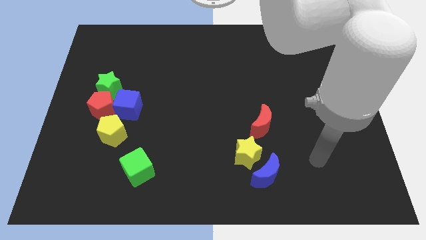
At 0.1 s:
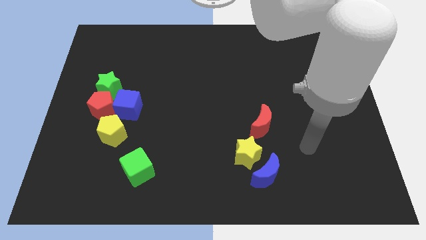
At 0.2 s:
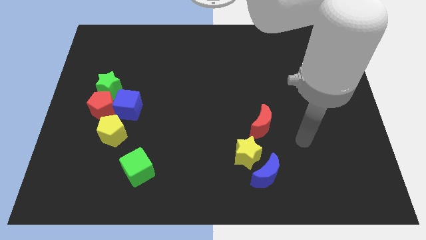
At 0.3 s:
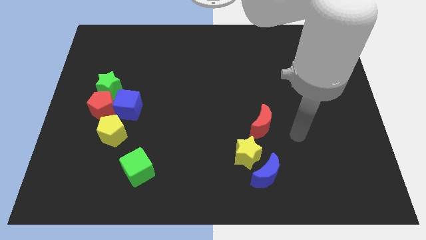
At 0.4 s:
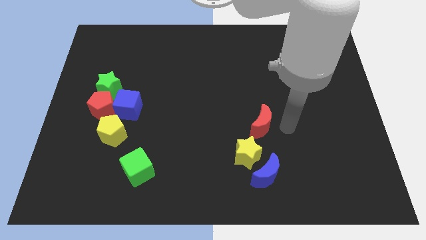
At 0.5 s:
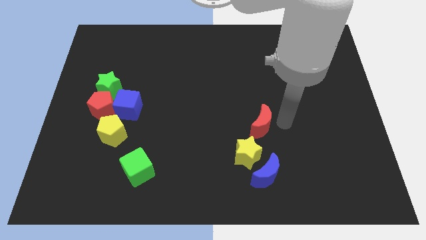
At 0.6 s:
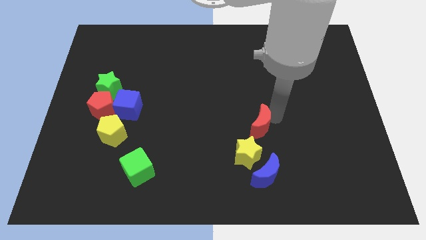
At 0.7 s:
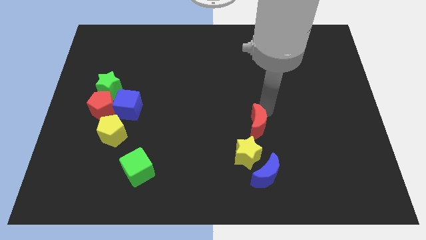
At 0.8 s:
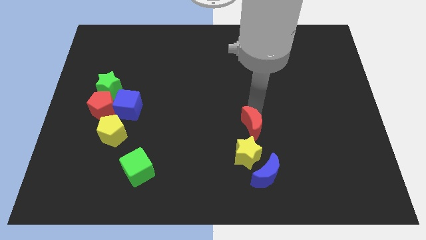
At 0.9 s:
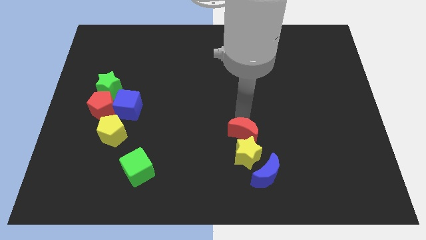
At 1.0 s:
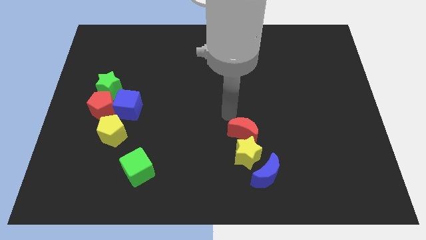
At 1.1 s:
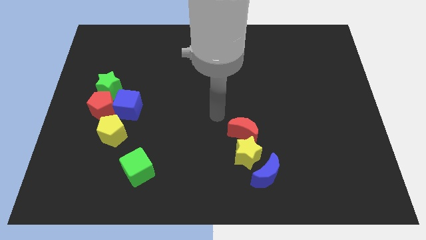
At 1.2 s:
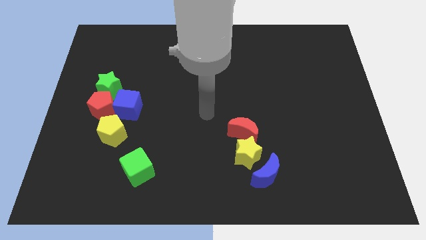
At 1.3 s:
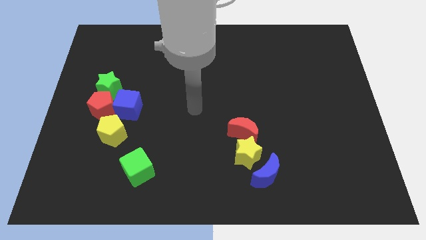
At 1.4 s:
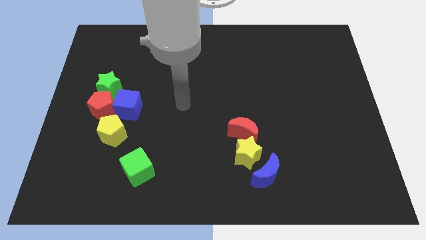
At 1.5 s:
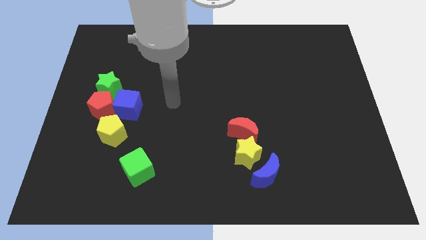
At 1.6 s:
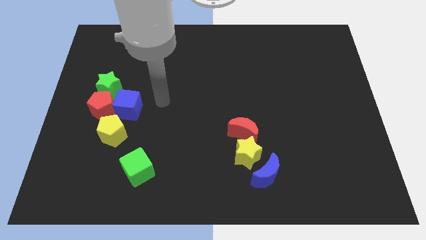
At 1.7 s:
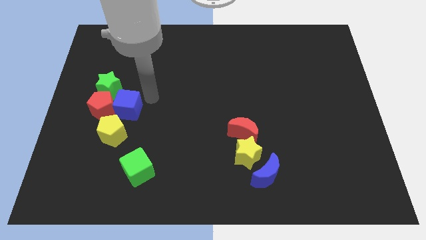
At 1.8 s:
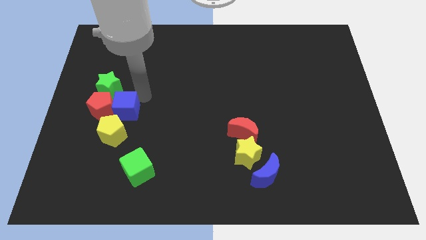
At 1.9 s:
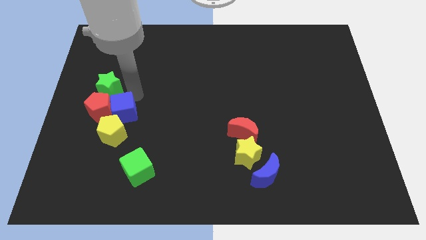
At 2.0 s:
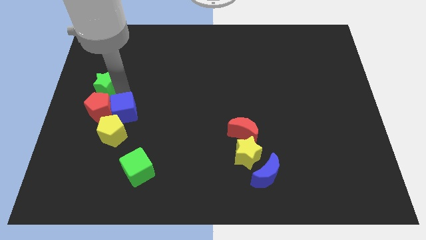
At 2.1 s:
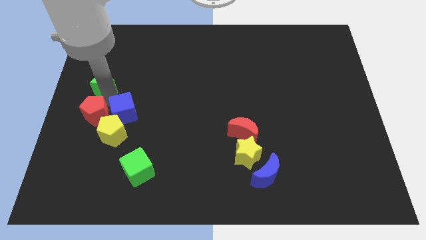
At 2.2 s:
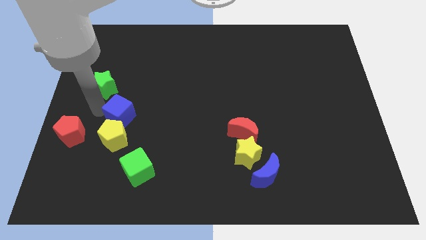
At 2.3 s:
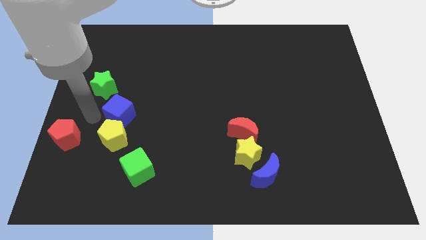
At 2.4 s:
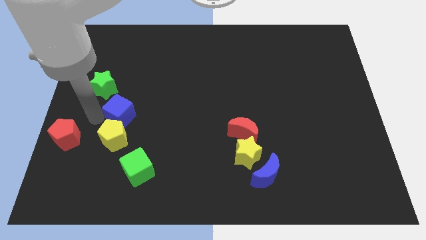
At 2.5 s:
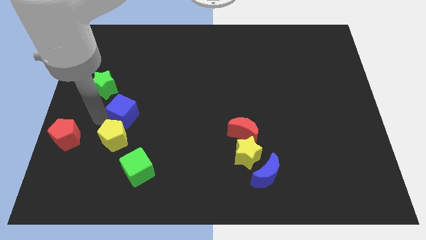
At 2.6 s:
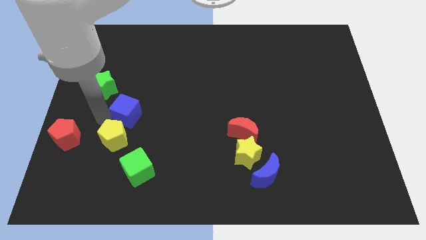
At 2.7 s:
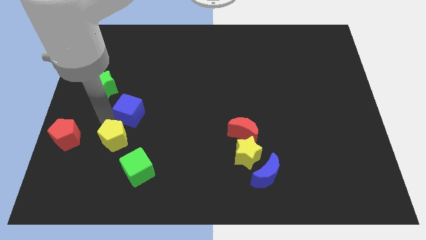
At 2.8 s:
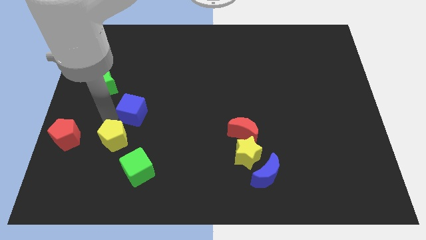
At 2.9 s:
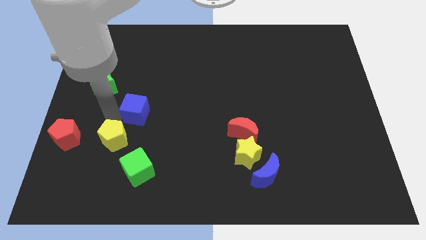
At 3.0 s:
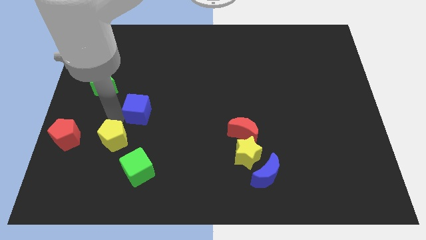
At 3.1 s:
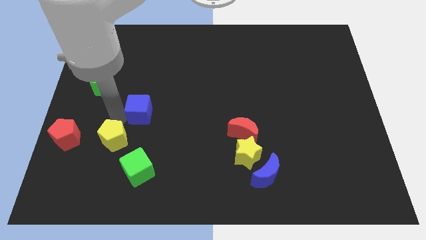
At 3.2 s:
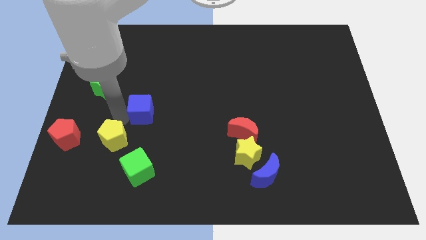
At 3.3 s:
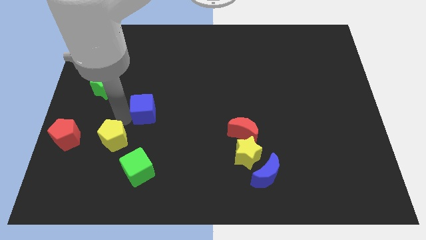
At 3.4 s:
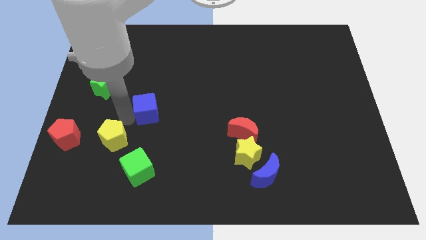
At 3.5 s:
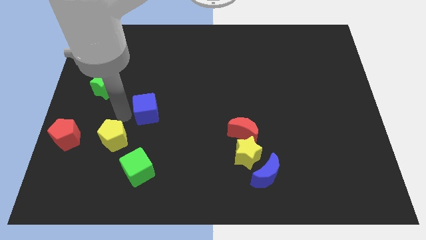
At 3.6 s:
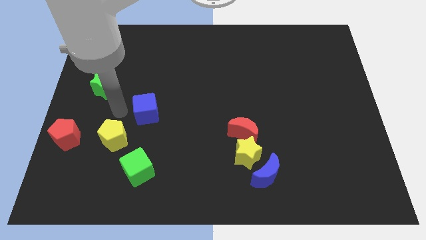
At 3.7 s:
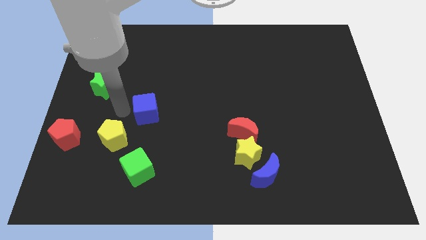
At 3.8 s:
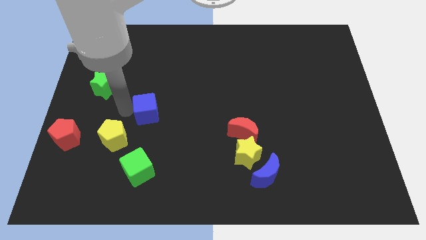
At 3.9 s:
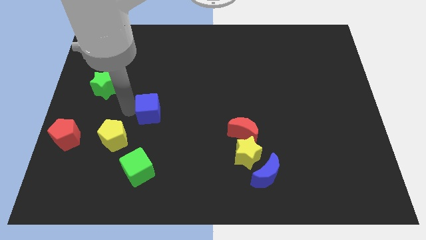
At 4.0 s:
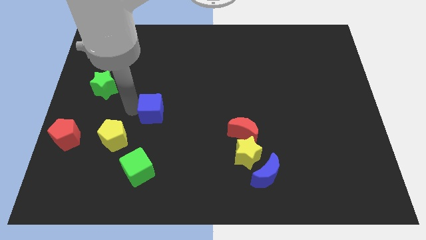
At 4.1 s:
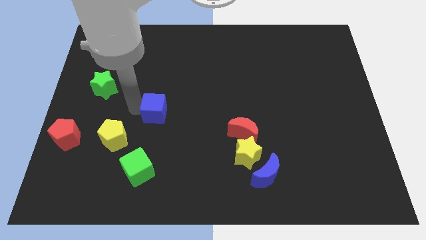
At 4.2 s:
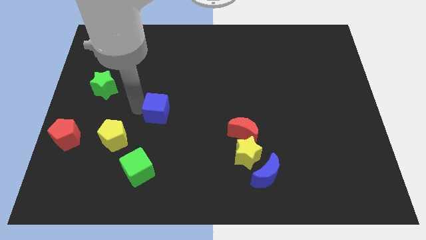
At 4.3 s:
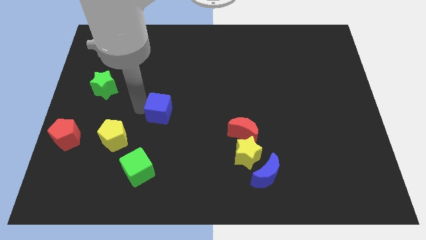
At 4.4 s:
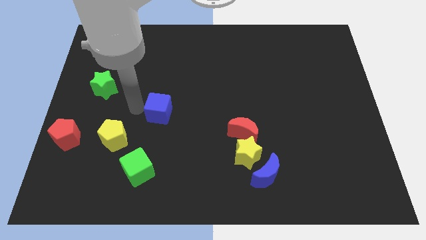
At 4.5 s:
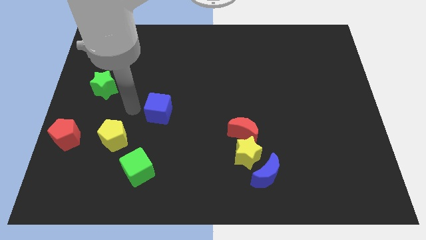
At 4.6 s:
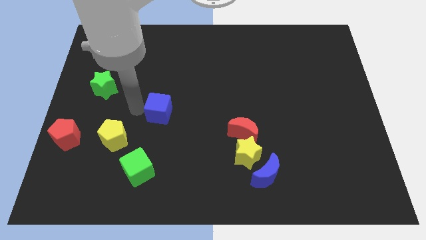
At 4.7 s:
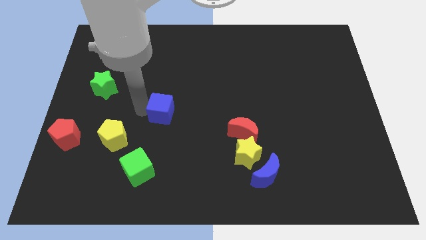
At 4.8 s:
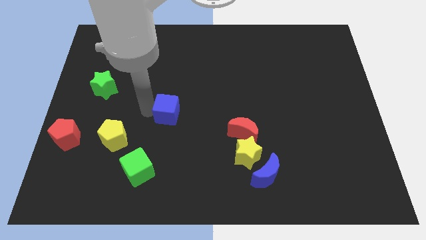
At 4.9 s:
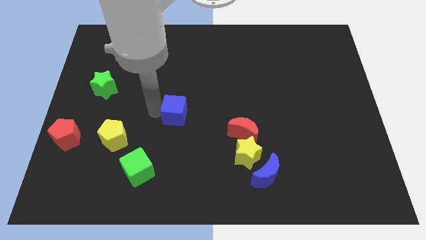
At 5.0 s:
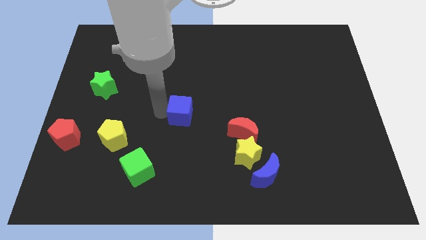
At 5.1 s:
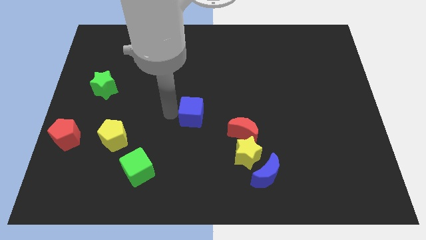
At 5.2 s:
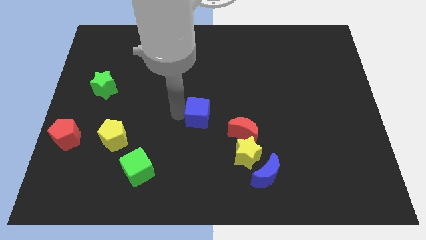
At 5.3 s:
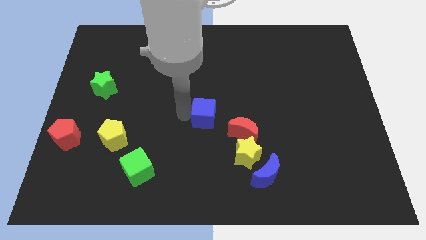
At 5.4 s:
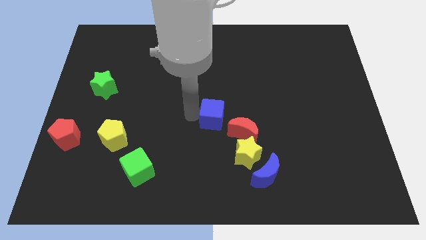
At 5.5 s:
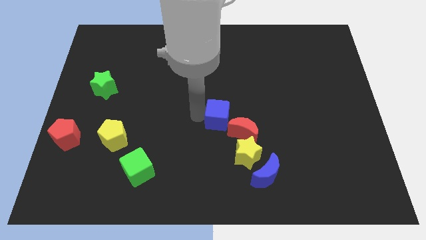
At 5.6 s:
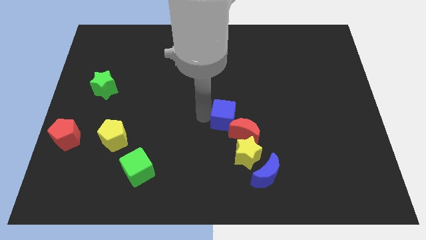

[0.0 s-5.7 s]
put the blue cube towards the red moon

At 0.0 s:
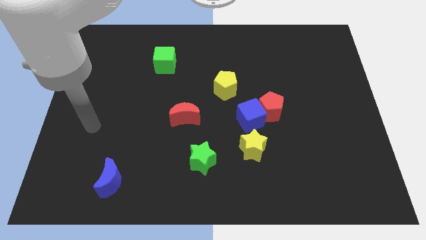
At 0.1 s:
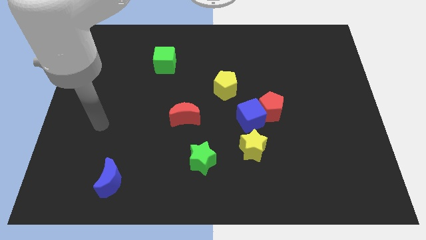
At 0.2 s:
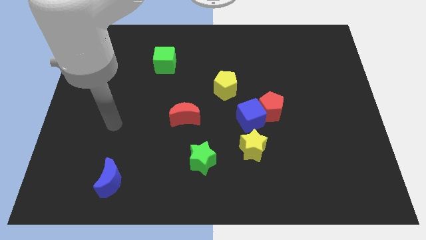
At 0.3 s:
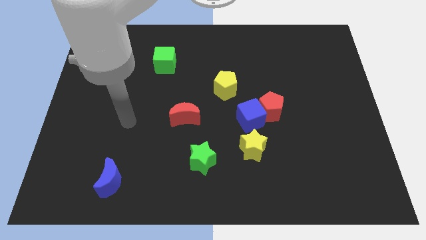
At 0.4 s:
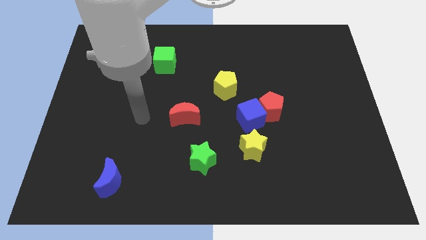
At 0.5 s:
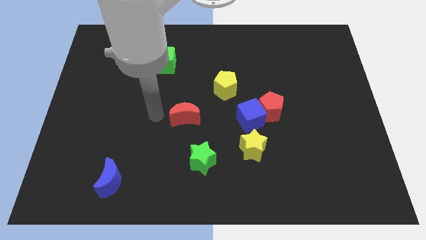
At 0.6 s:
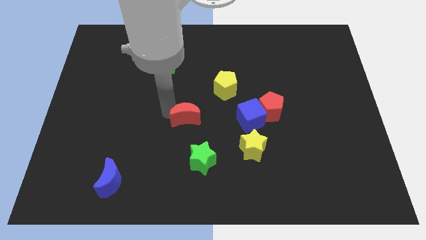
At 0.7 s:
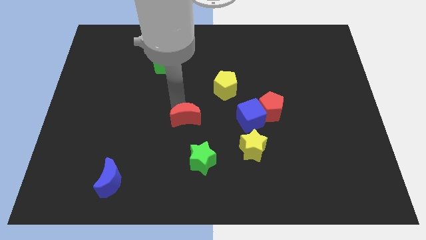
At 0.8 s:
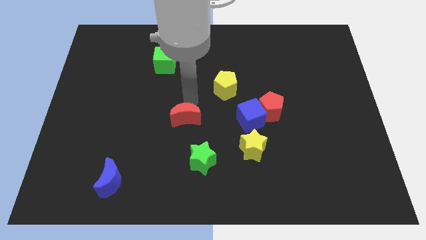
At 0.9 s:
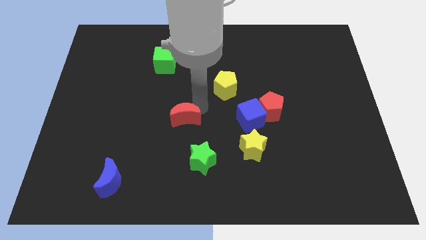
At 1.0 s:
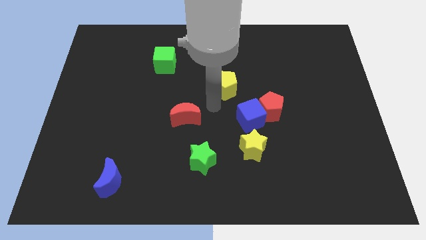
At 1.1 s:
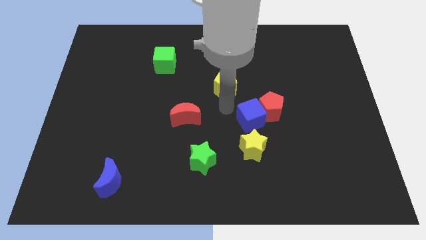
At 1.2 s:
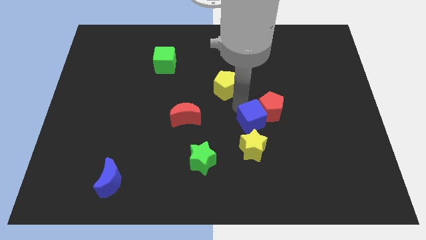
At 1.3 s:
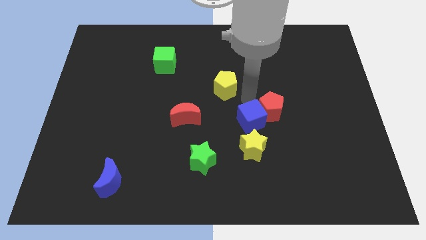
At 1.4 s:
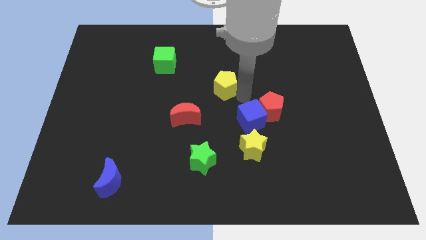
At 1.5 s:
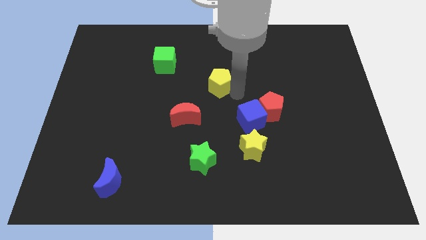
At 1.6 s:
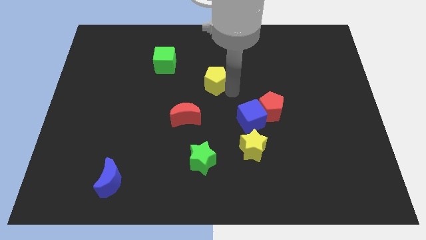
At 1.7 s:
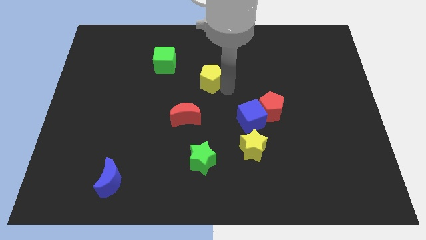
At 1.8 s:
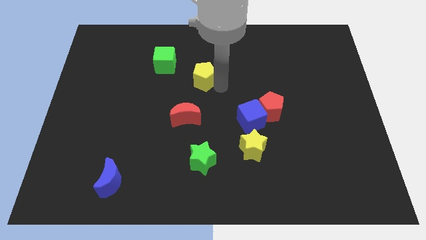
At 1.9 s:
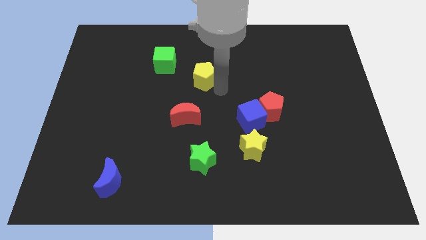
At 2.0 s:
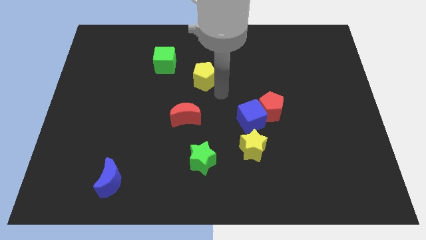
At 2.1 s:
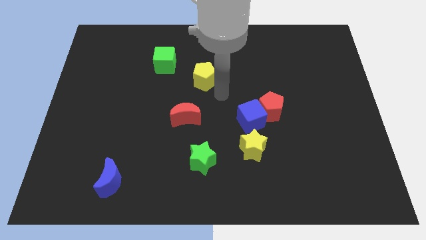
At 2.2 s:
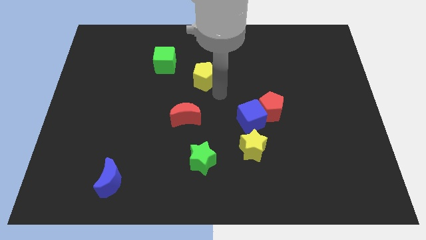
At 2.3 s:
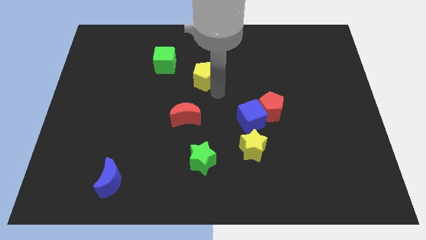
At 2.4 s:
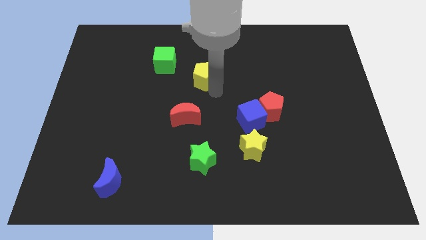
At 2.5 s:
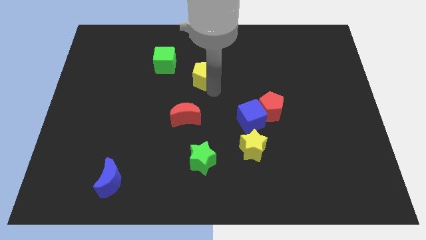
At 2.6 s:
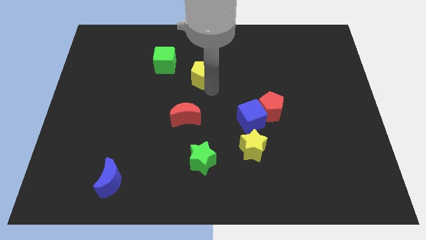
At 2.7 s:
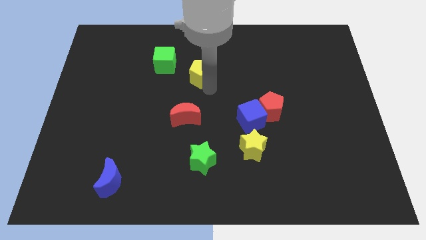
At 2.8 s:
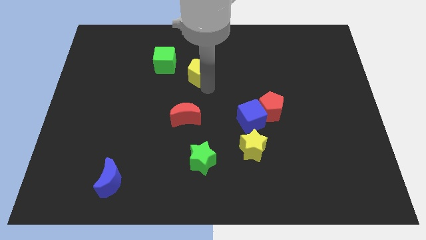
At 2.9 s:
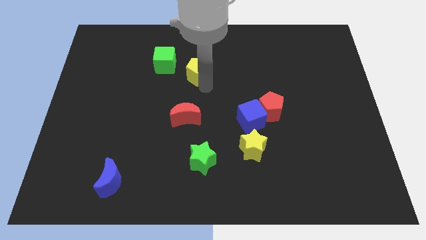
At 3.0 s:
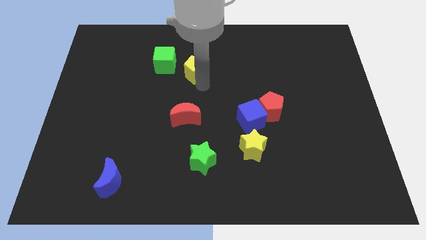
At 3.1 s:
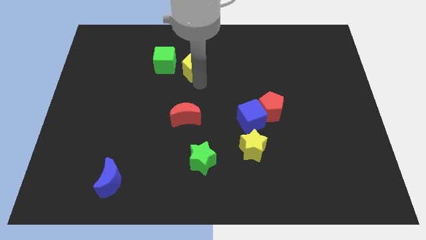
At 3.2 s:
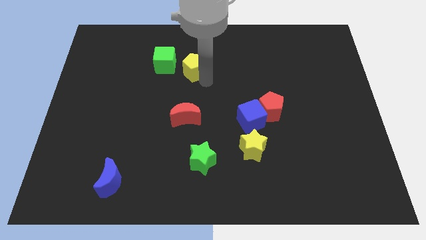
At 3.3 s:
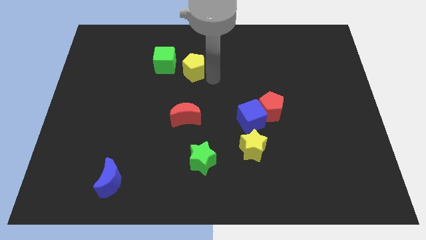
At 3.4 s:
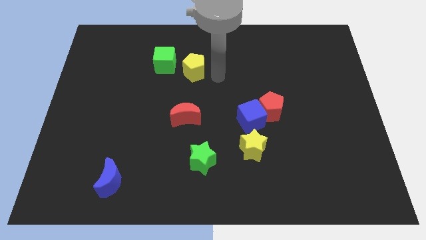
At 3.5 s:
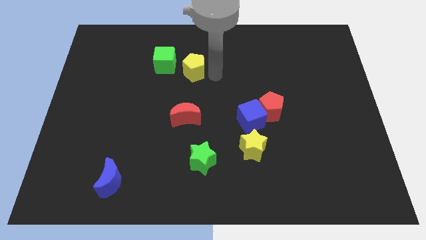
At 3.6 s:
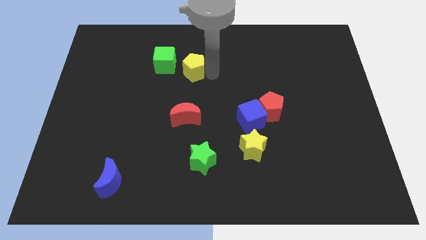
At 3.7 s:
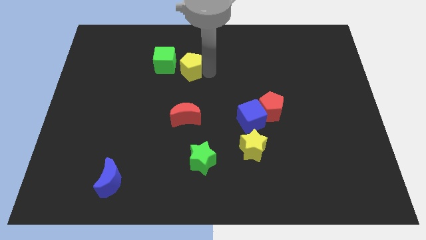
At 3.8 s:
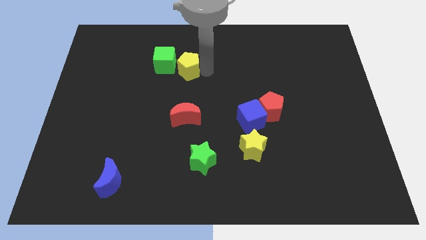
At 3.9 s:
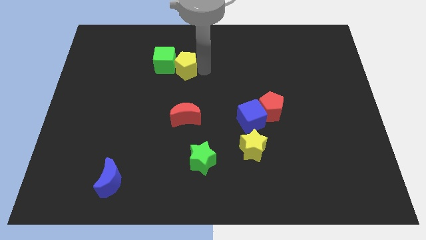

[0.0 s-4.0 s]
put the yellow pentagon to the green cube
